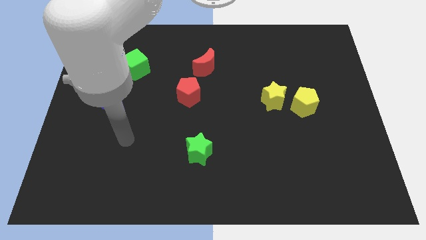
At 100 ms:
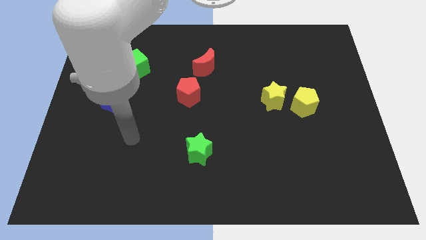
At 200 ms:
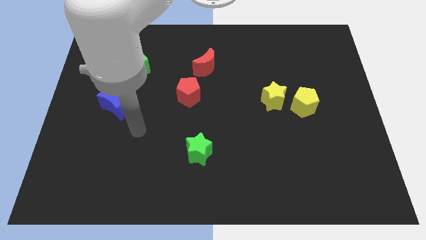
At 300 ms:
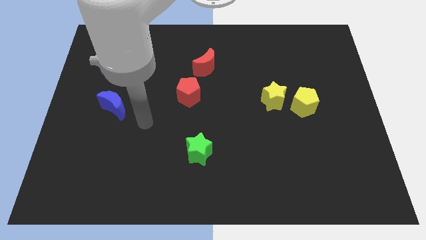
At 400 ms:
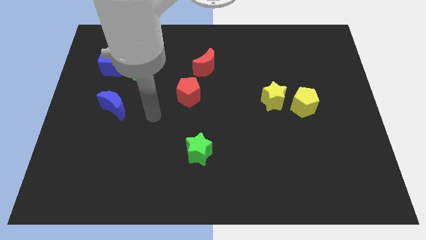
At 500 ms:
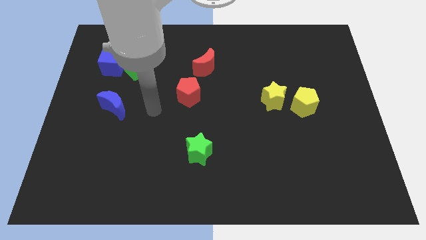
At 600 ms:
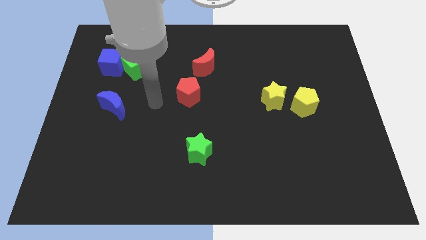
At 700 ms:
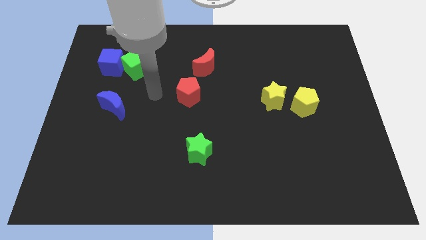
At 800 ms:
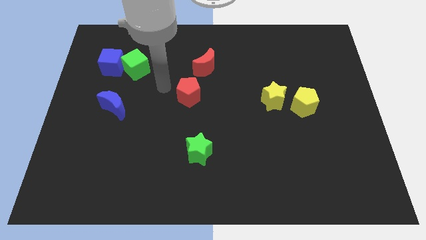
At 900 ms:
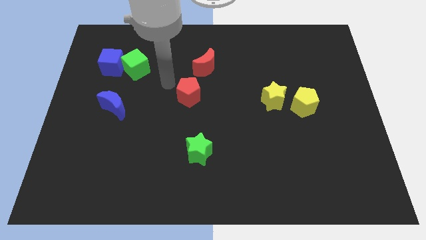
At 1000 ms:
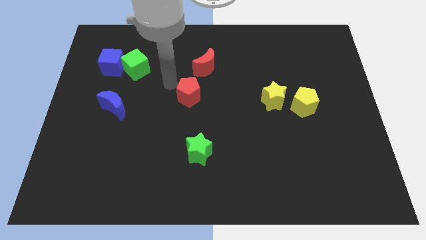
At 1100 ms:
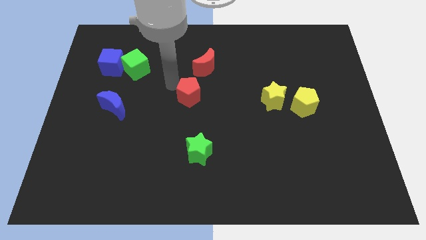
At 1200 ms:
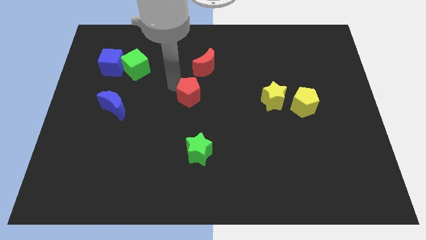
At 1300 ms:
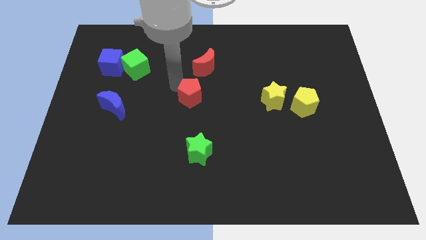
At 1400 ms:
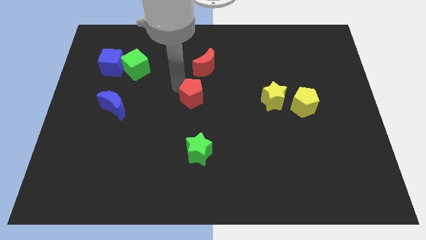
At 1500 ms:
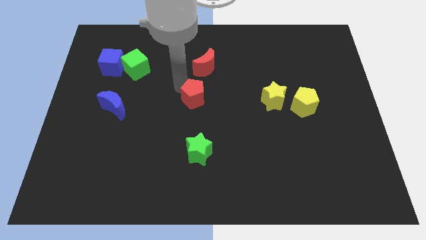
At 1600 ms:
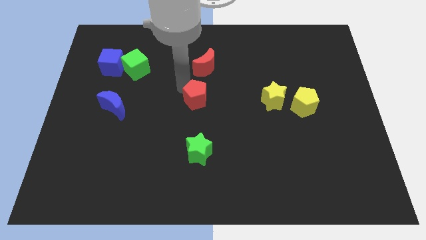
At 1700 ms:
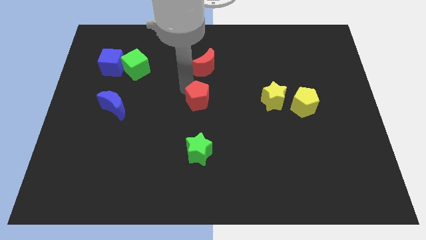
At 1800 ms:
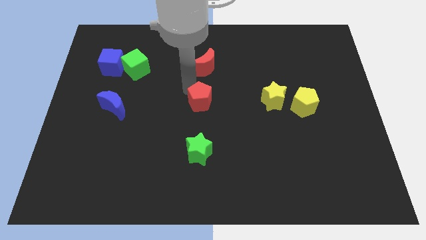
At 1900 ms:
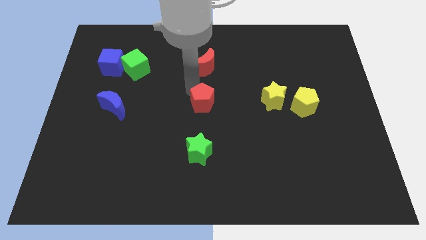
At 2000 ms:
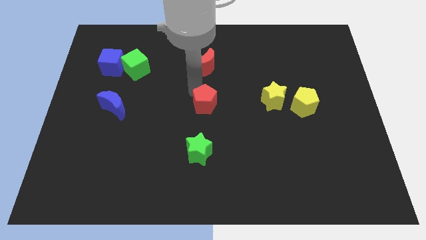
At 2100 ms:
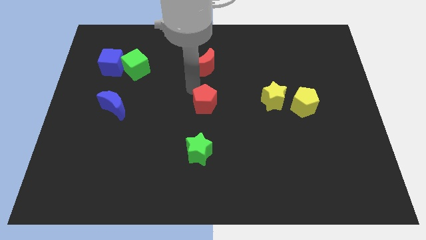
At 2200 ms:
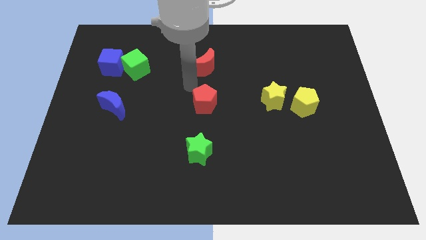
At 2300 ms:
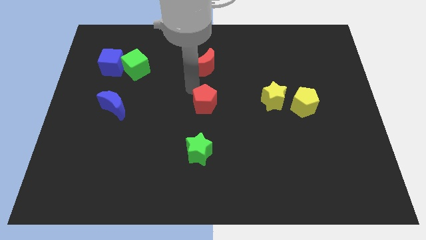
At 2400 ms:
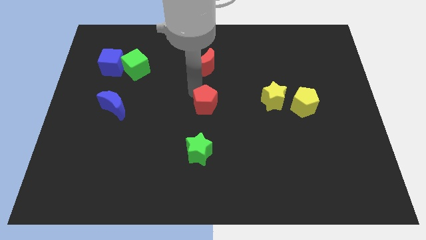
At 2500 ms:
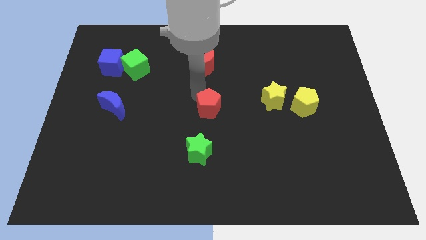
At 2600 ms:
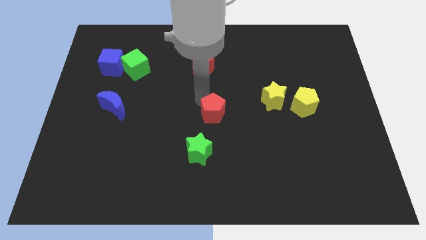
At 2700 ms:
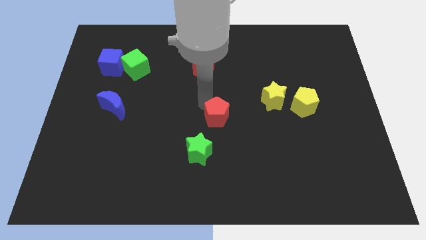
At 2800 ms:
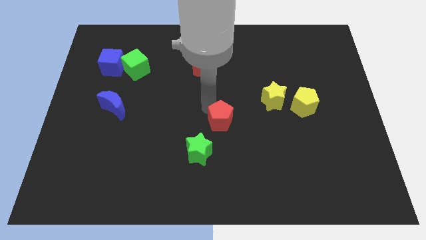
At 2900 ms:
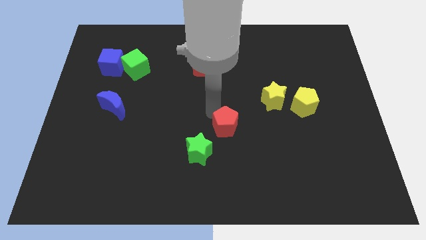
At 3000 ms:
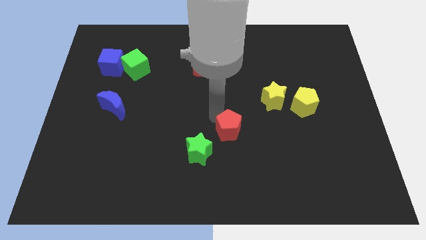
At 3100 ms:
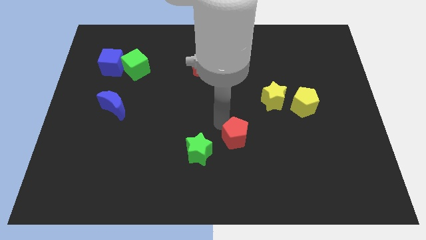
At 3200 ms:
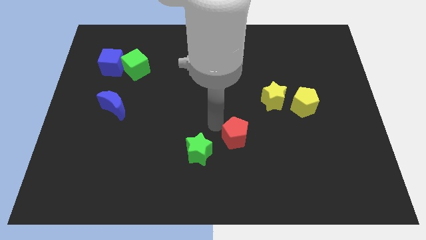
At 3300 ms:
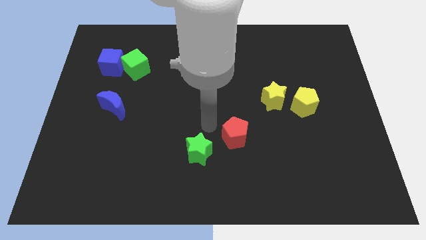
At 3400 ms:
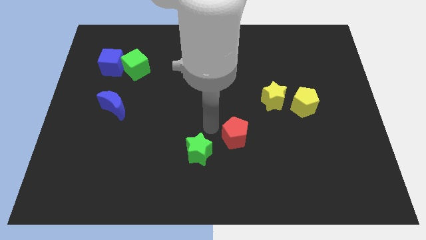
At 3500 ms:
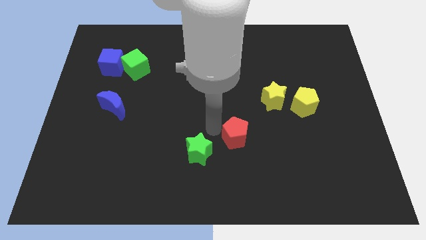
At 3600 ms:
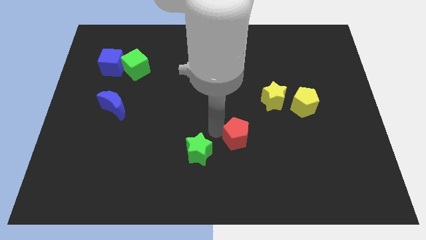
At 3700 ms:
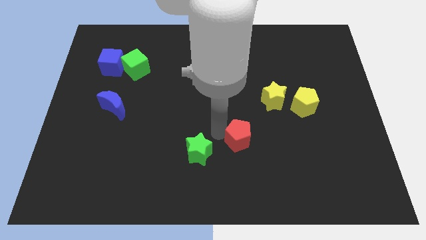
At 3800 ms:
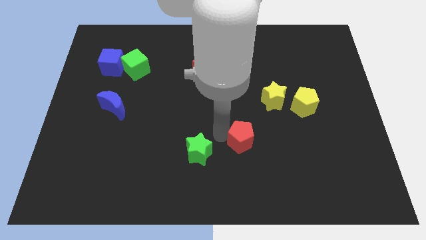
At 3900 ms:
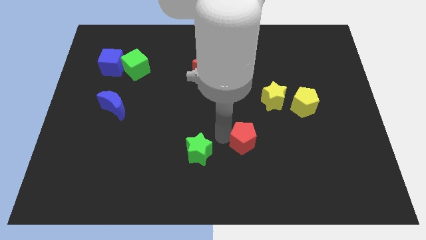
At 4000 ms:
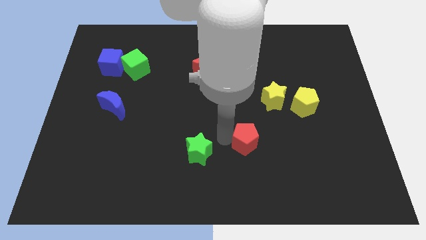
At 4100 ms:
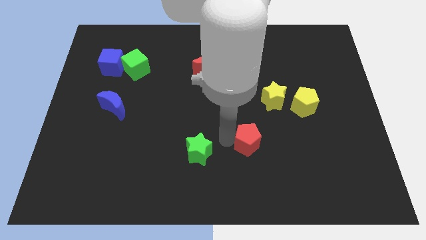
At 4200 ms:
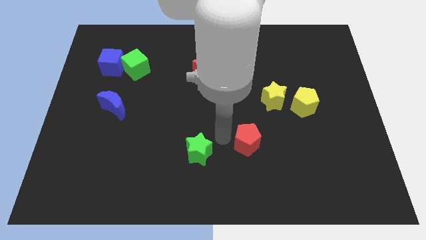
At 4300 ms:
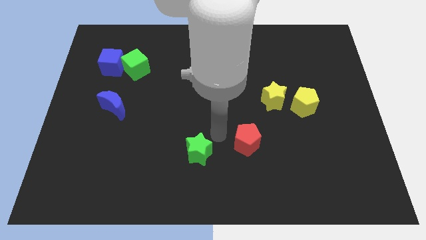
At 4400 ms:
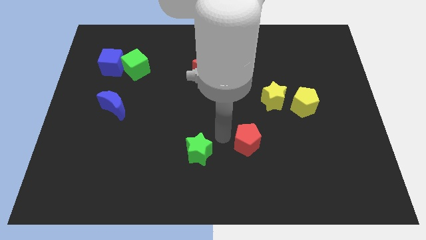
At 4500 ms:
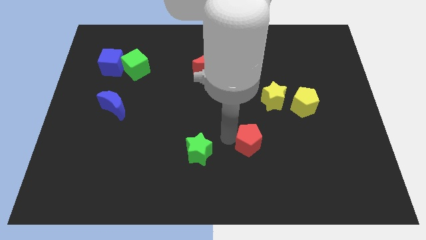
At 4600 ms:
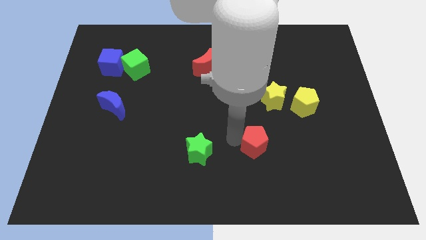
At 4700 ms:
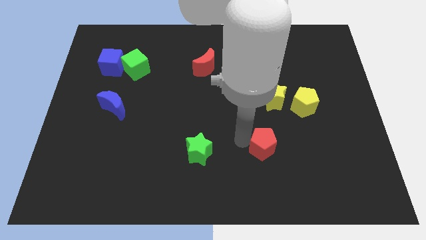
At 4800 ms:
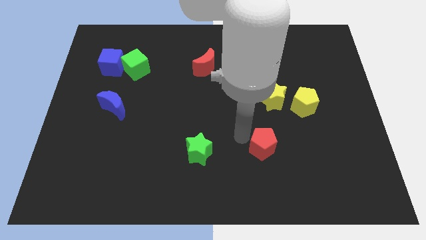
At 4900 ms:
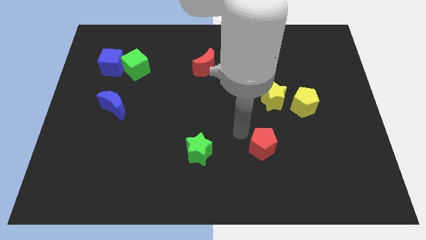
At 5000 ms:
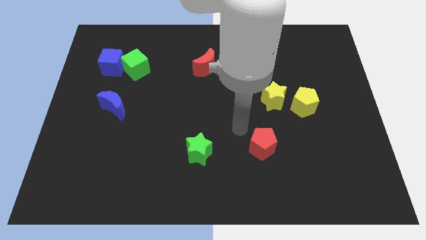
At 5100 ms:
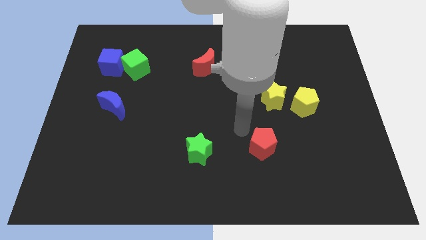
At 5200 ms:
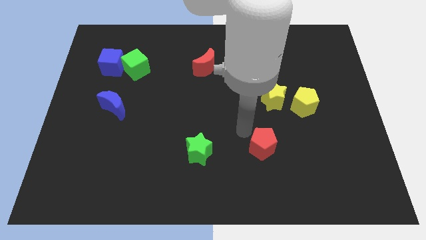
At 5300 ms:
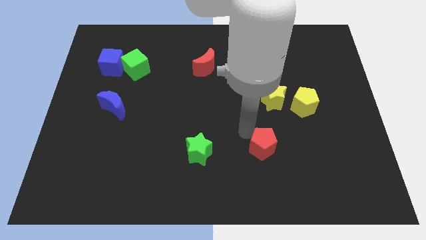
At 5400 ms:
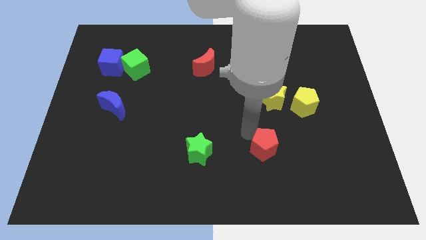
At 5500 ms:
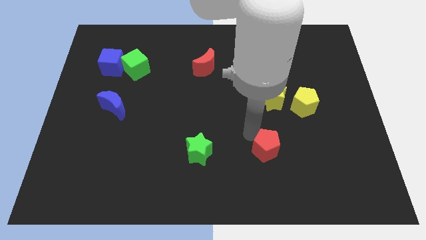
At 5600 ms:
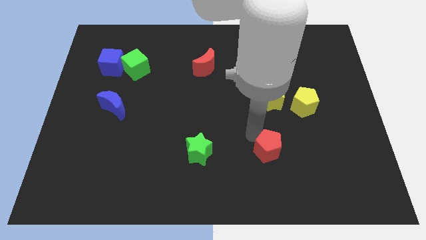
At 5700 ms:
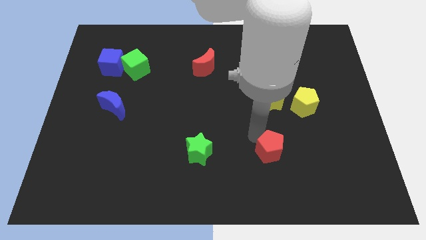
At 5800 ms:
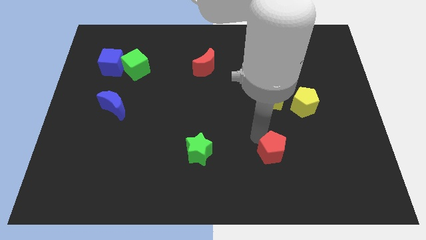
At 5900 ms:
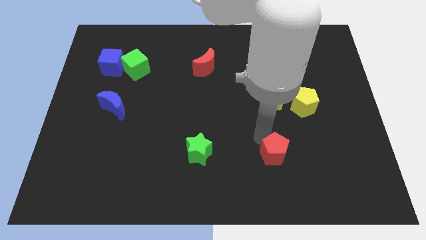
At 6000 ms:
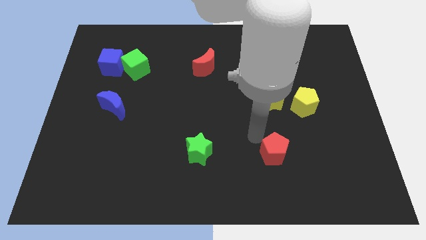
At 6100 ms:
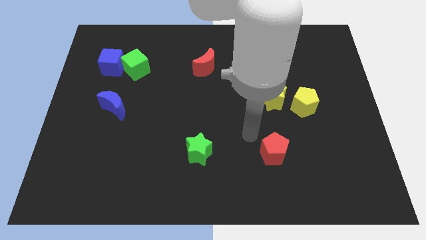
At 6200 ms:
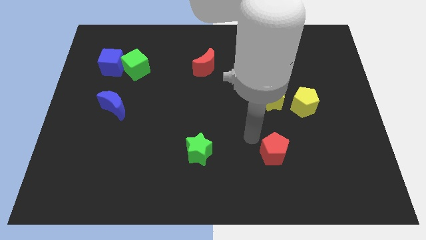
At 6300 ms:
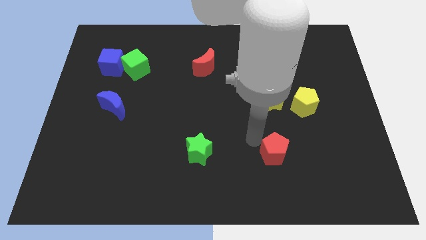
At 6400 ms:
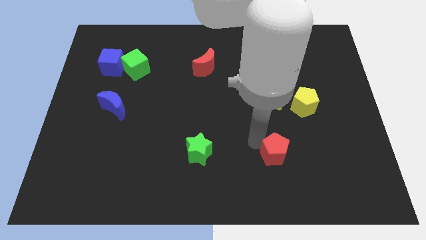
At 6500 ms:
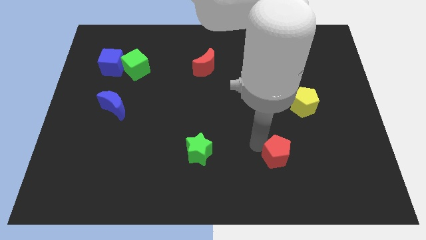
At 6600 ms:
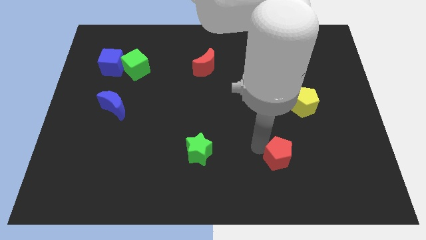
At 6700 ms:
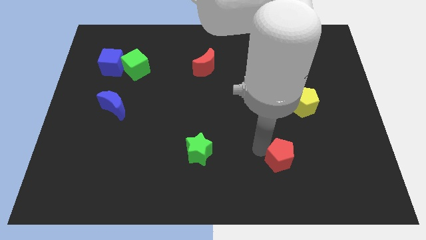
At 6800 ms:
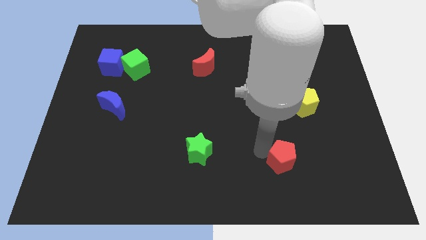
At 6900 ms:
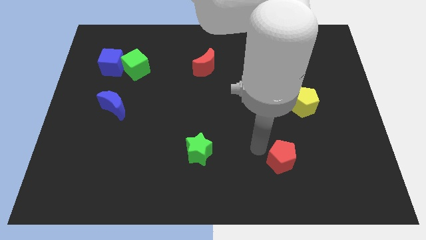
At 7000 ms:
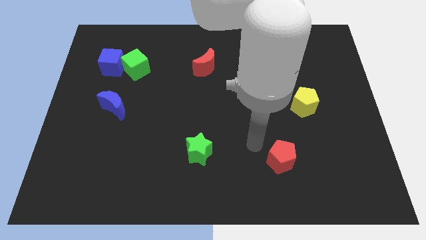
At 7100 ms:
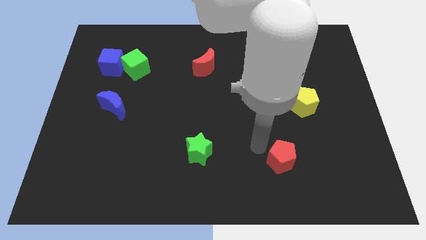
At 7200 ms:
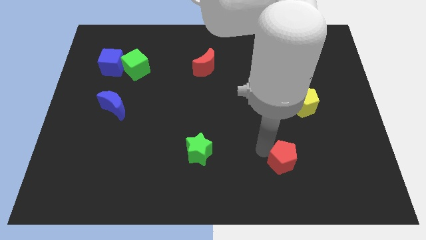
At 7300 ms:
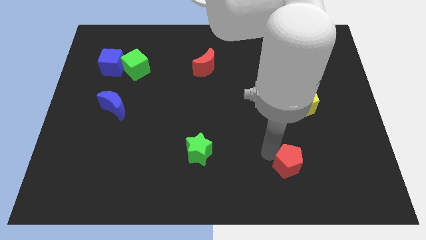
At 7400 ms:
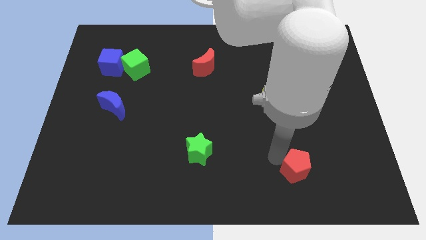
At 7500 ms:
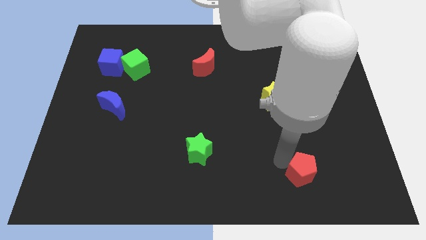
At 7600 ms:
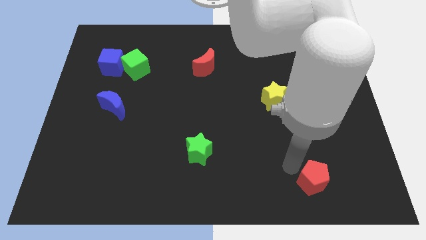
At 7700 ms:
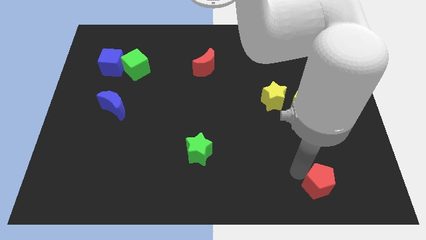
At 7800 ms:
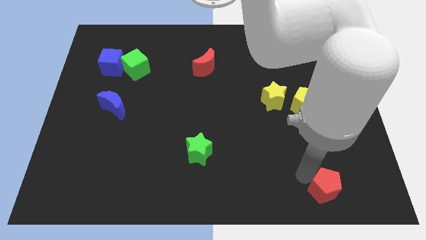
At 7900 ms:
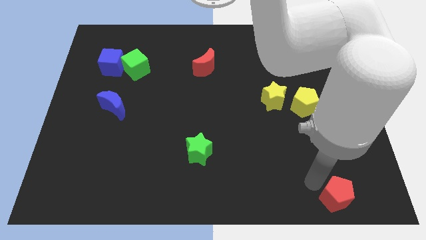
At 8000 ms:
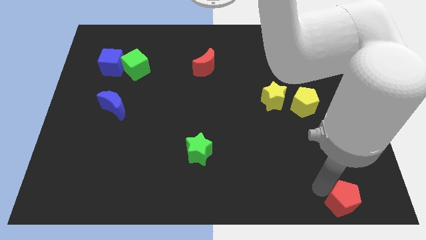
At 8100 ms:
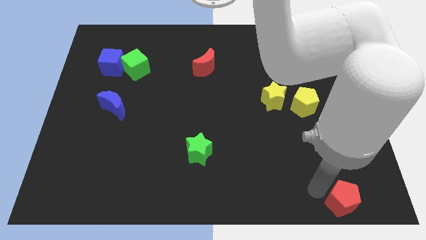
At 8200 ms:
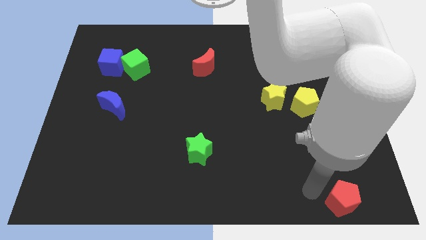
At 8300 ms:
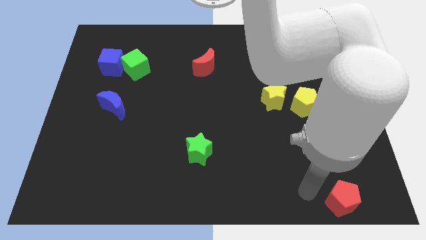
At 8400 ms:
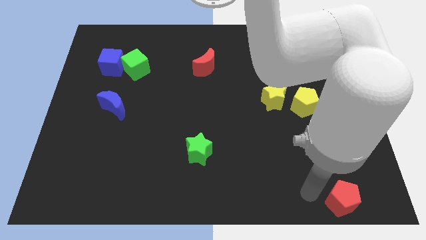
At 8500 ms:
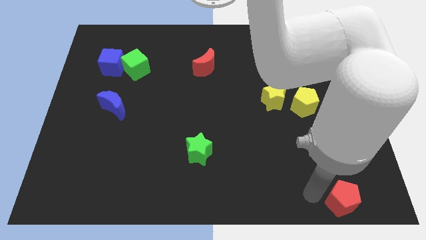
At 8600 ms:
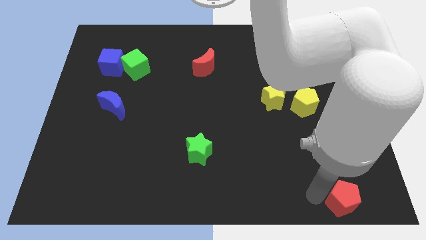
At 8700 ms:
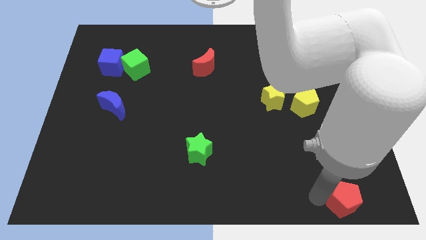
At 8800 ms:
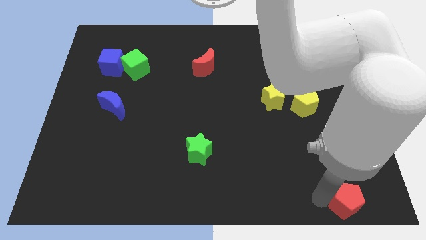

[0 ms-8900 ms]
put the red pentagon to the lower right corner
